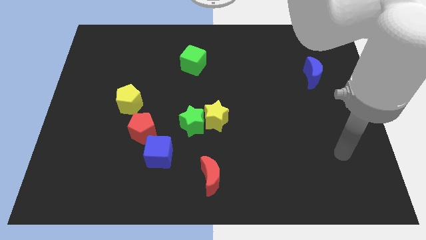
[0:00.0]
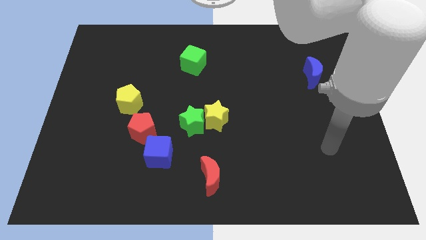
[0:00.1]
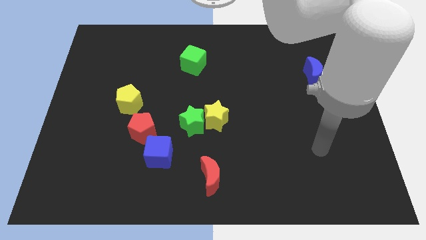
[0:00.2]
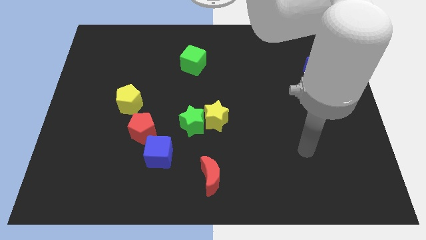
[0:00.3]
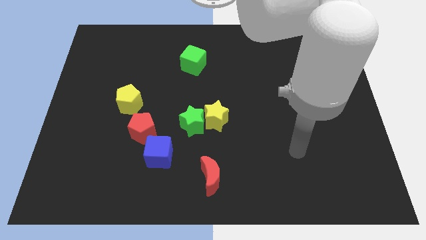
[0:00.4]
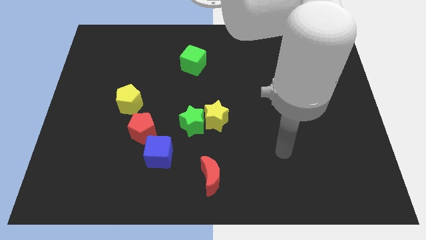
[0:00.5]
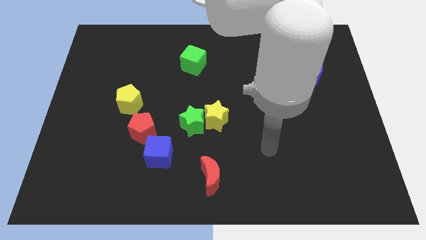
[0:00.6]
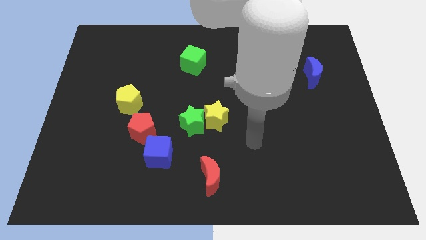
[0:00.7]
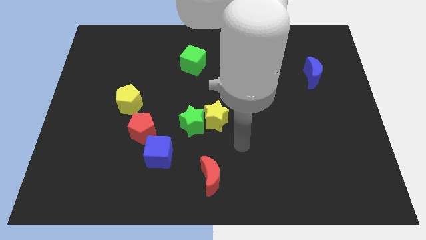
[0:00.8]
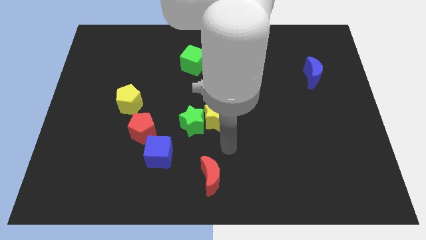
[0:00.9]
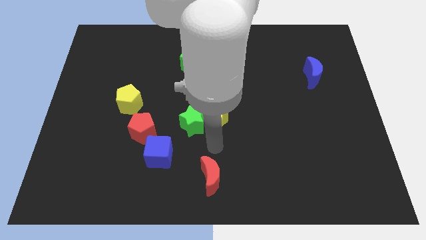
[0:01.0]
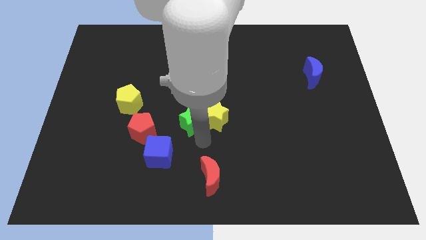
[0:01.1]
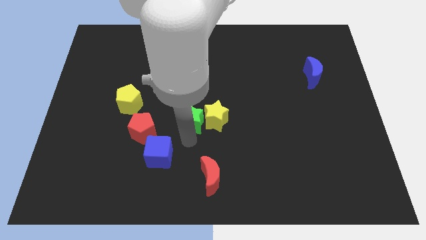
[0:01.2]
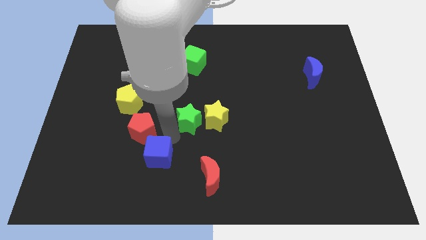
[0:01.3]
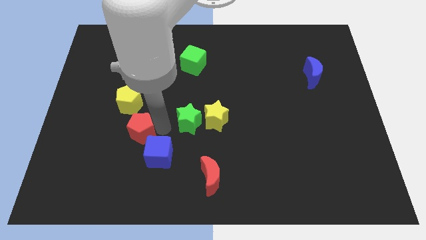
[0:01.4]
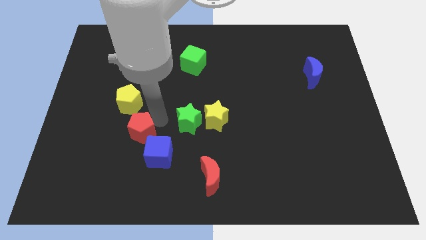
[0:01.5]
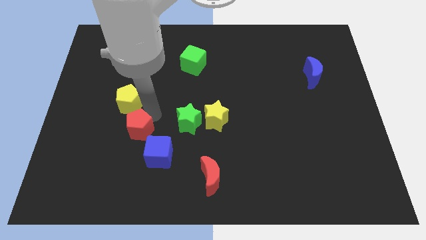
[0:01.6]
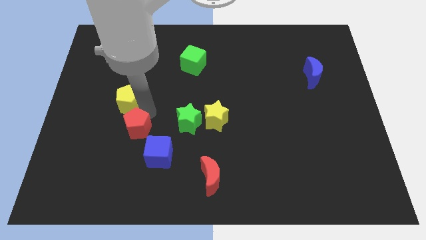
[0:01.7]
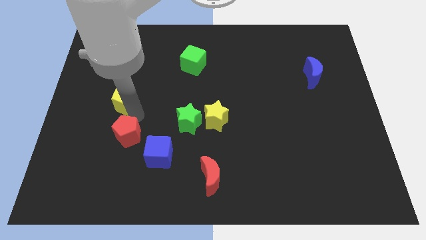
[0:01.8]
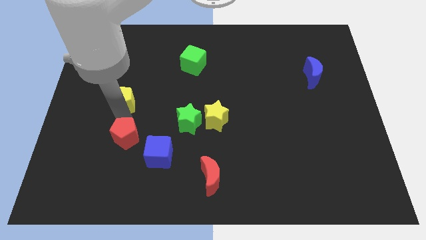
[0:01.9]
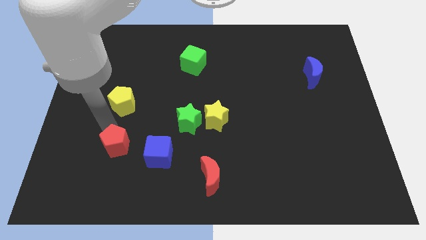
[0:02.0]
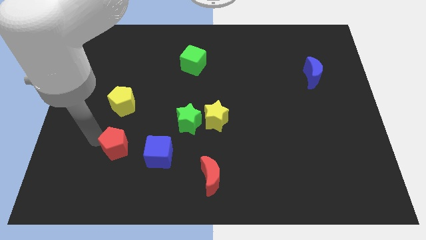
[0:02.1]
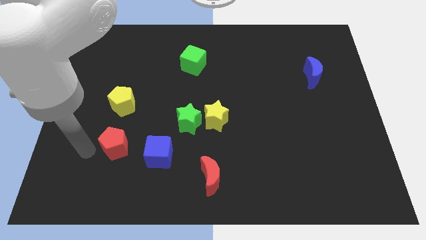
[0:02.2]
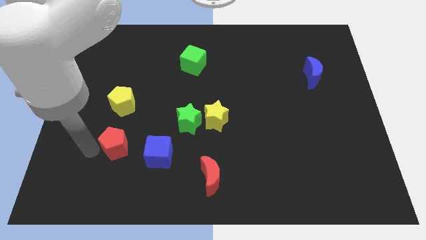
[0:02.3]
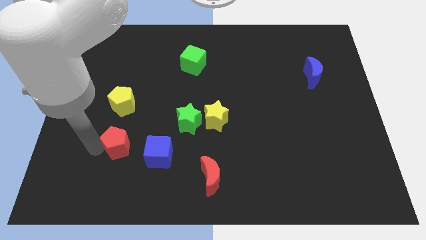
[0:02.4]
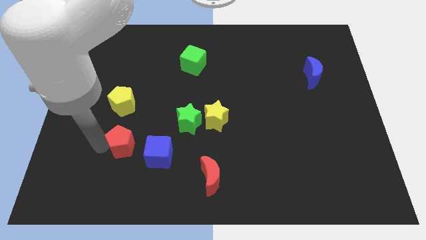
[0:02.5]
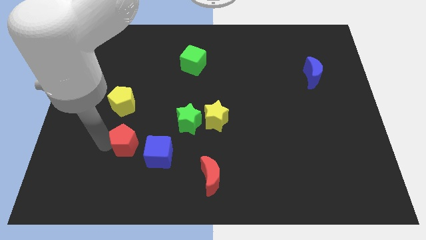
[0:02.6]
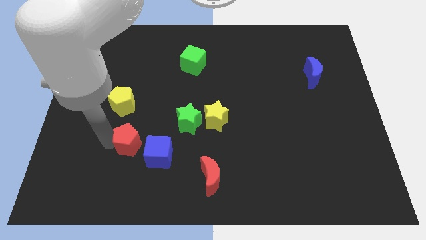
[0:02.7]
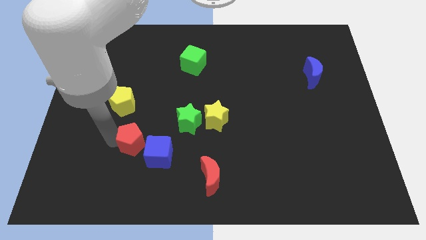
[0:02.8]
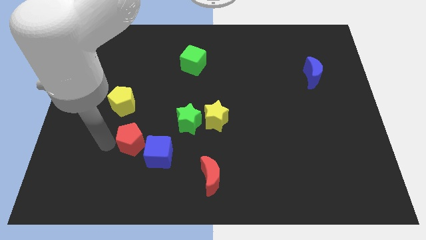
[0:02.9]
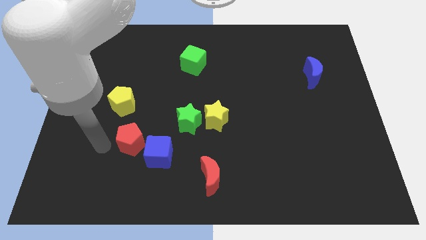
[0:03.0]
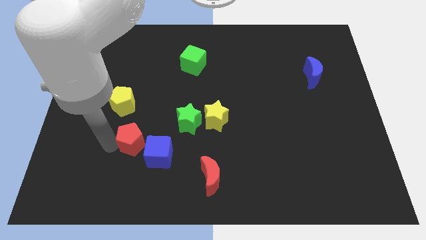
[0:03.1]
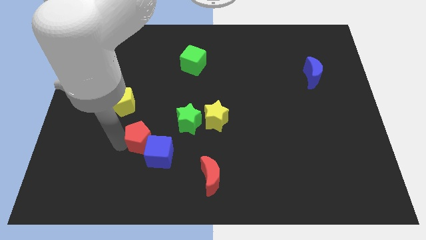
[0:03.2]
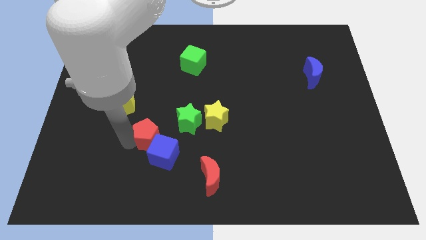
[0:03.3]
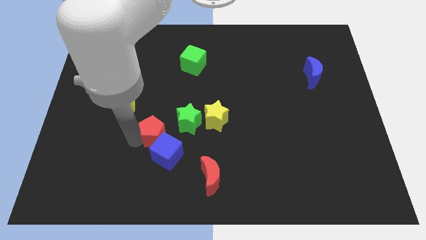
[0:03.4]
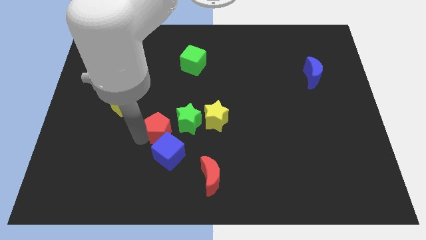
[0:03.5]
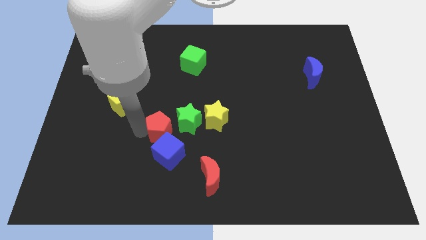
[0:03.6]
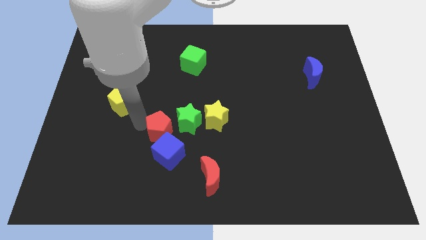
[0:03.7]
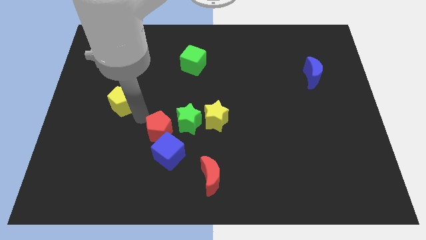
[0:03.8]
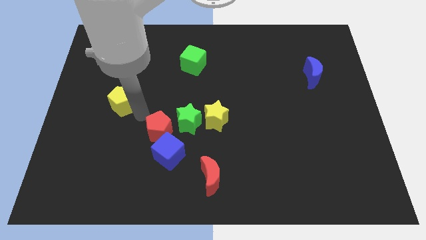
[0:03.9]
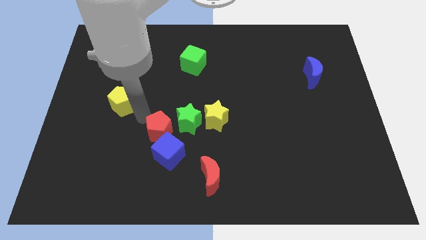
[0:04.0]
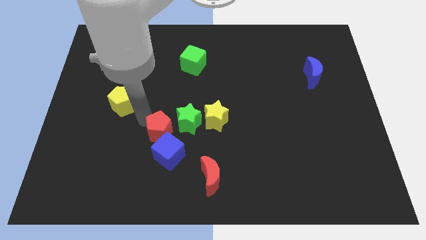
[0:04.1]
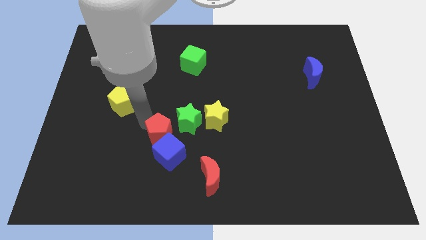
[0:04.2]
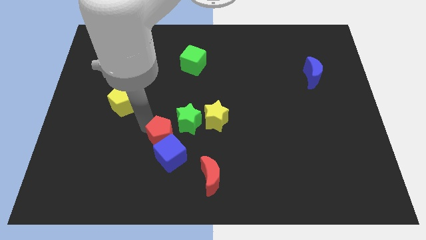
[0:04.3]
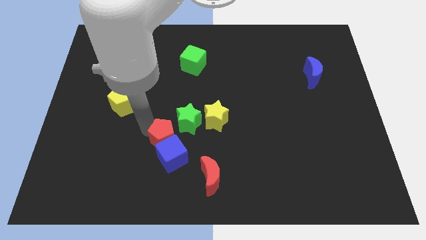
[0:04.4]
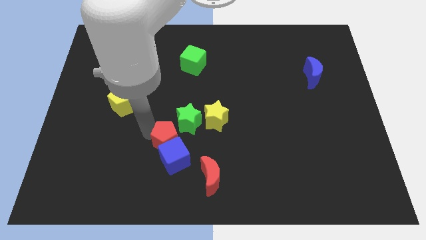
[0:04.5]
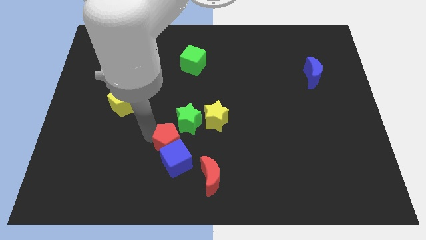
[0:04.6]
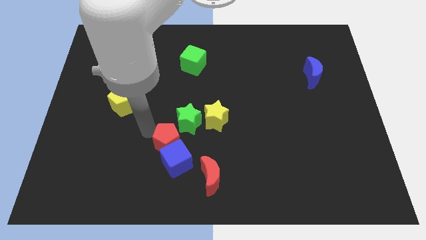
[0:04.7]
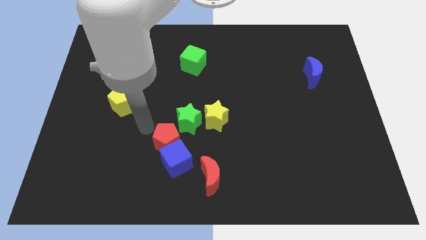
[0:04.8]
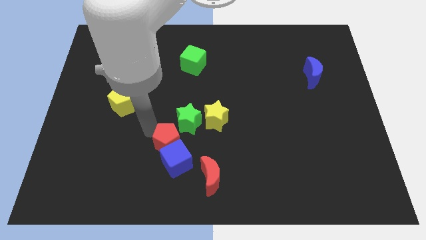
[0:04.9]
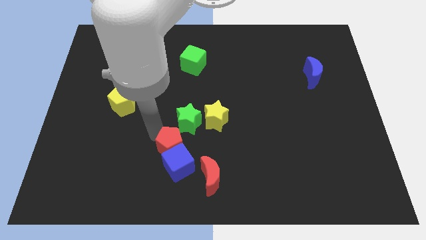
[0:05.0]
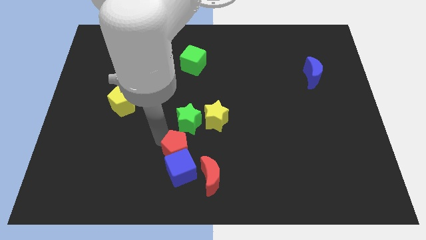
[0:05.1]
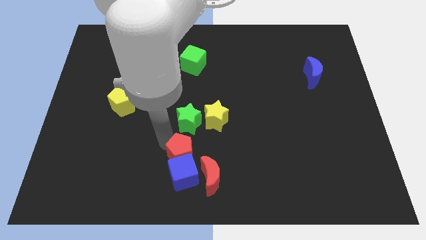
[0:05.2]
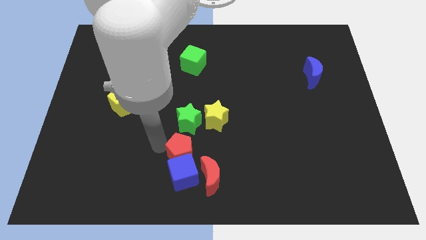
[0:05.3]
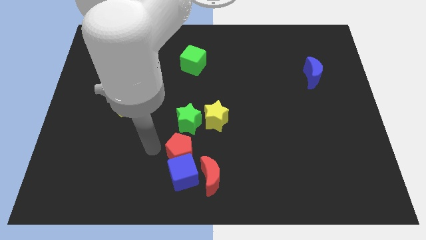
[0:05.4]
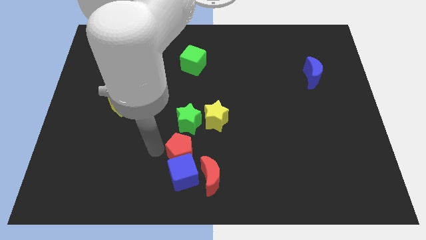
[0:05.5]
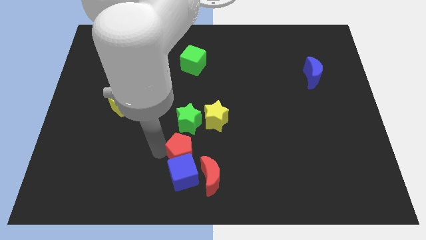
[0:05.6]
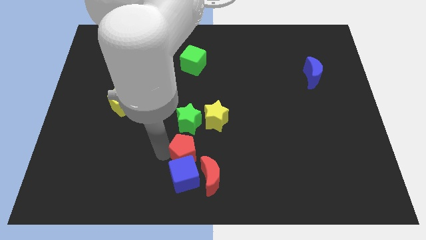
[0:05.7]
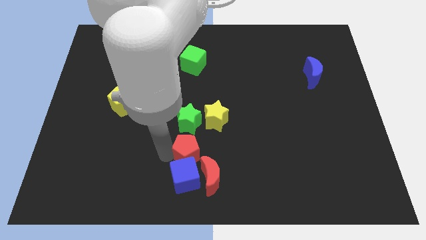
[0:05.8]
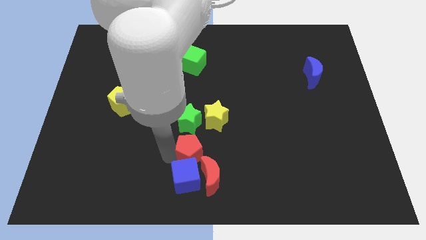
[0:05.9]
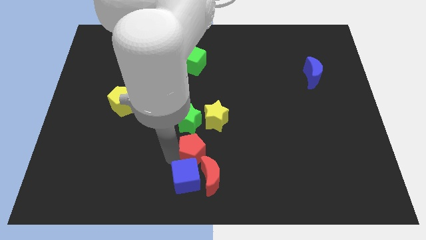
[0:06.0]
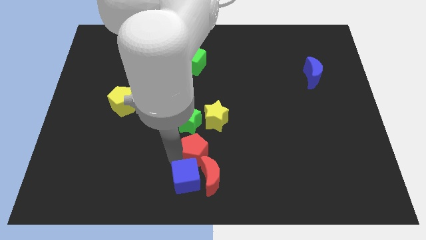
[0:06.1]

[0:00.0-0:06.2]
slide the red pentagon to the bottom side of the yellow star

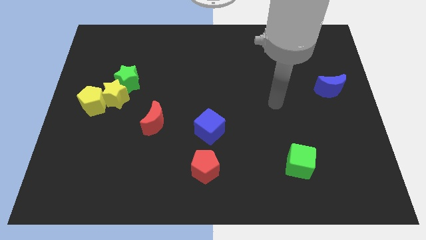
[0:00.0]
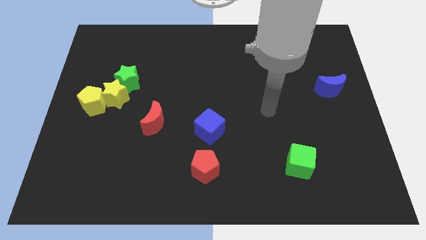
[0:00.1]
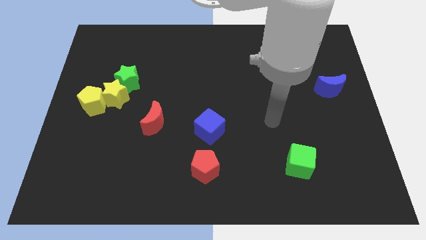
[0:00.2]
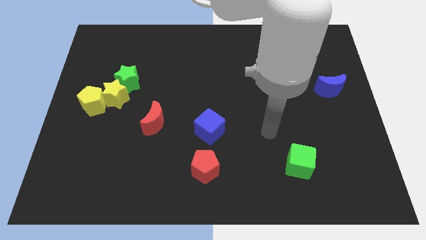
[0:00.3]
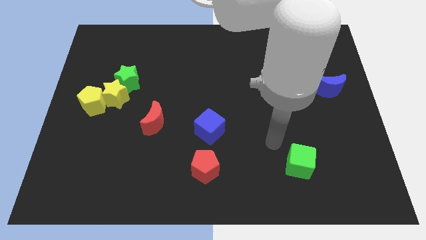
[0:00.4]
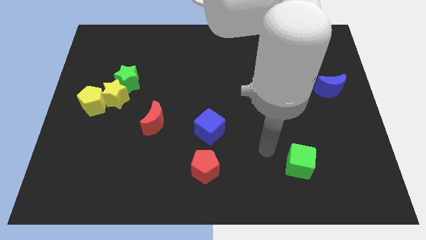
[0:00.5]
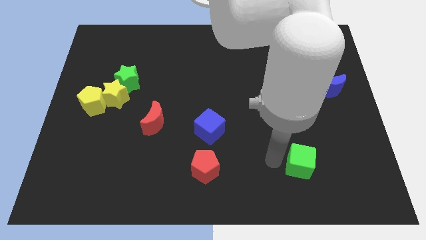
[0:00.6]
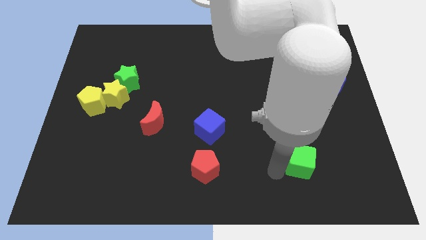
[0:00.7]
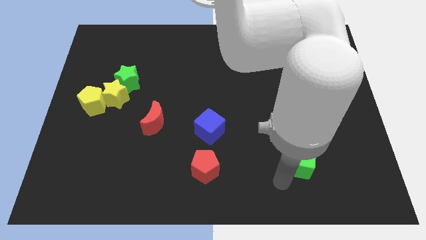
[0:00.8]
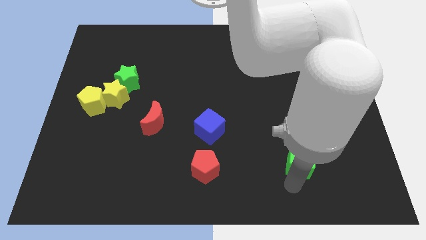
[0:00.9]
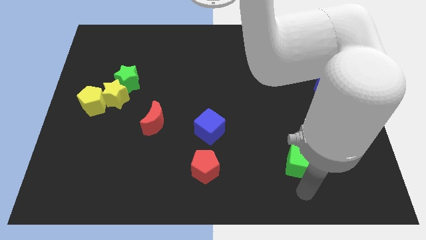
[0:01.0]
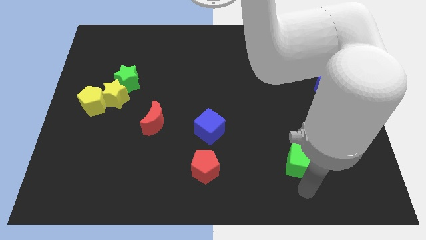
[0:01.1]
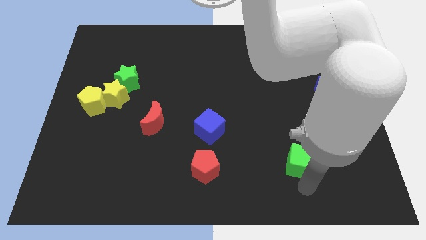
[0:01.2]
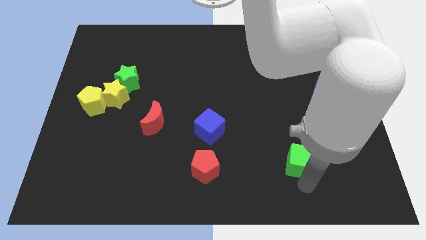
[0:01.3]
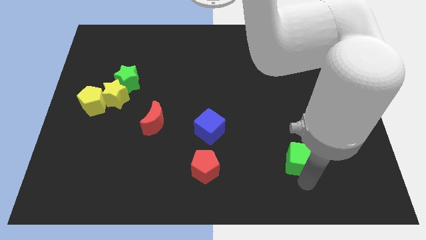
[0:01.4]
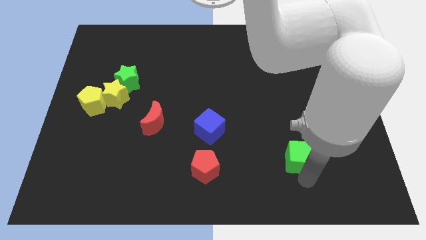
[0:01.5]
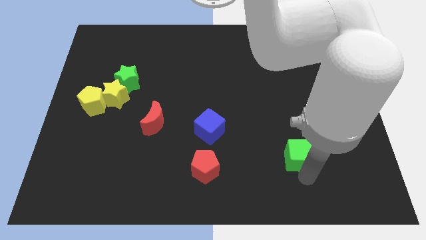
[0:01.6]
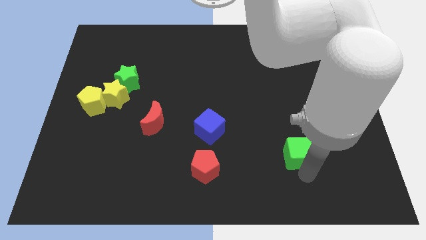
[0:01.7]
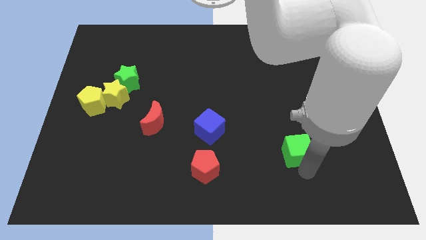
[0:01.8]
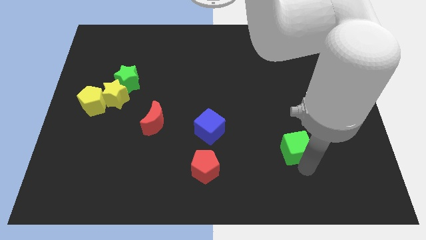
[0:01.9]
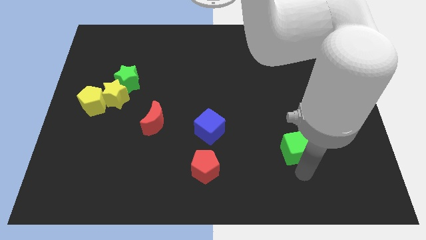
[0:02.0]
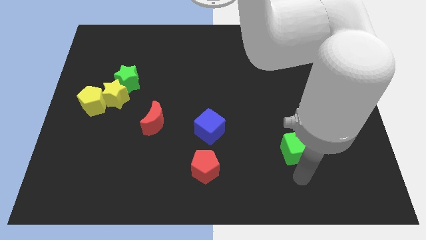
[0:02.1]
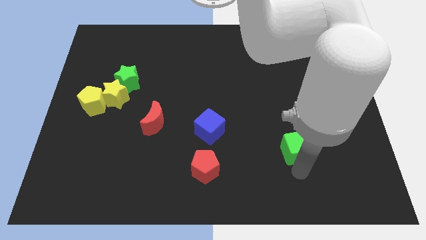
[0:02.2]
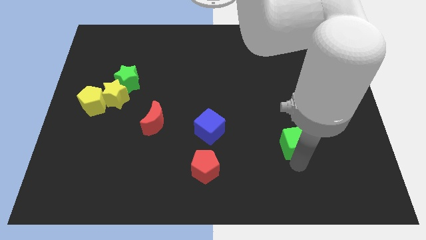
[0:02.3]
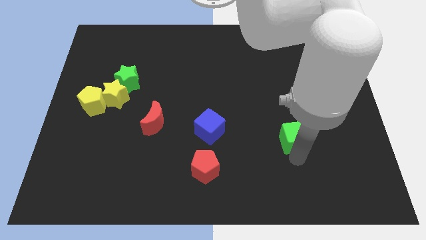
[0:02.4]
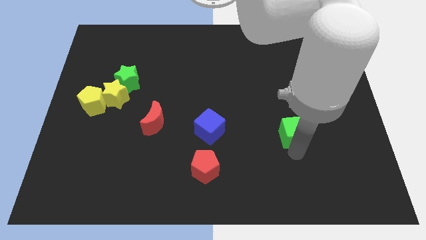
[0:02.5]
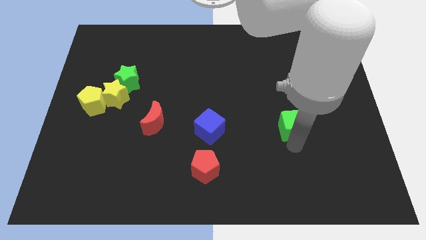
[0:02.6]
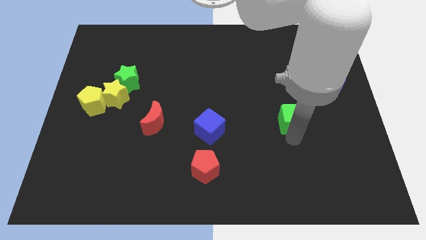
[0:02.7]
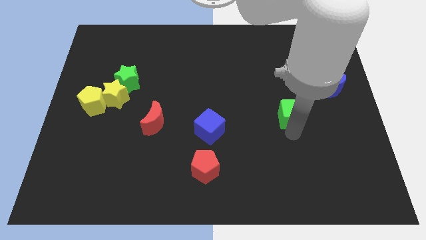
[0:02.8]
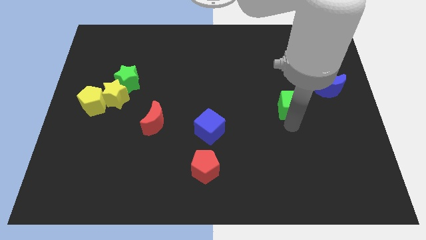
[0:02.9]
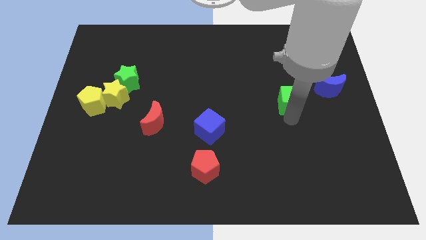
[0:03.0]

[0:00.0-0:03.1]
move the green cube to the left side of the blue moon
